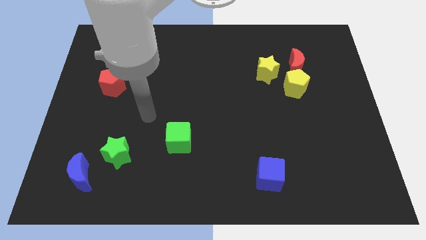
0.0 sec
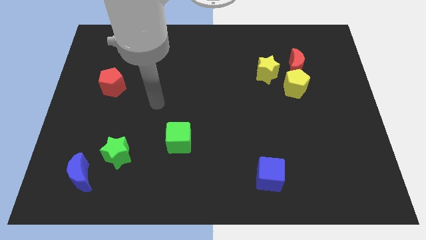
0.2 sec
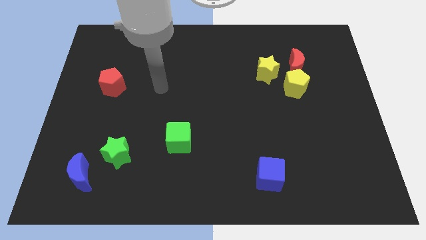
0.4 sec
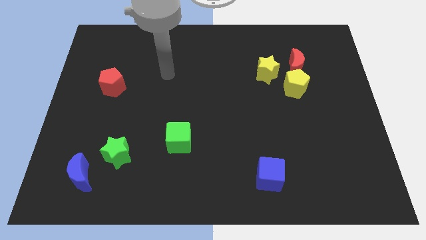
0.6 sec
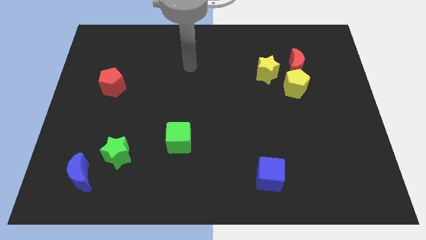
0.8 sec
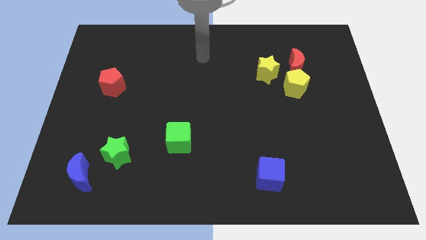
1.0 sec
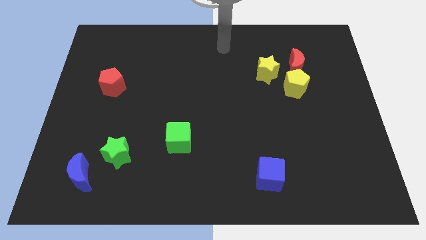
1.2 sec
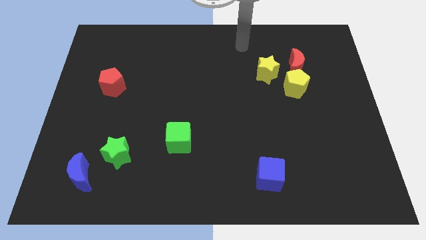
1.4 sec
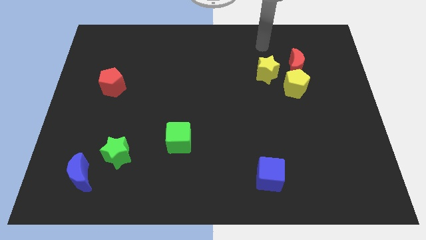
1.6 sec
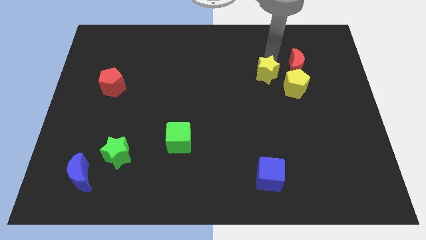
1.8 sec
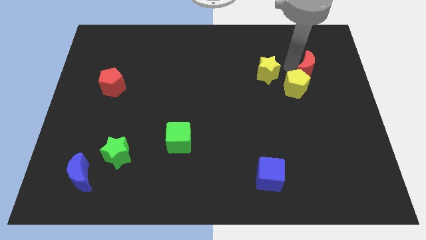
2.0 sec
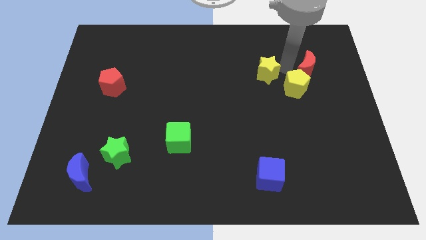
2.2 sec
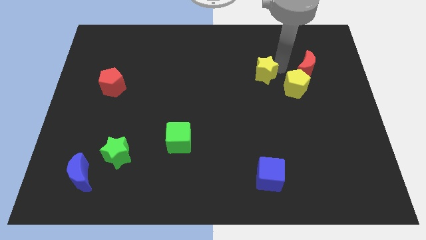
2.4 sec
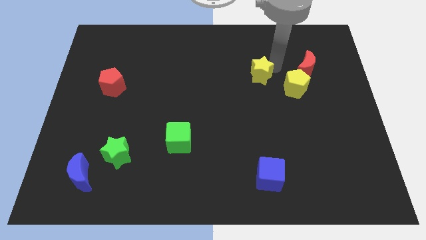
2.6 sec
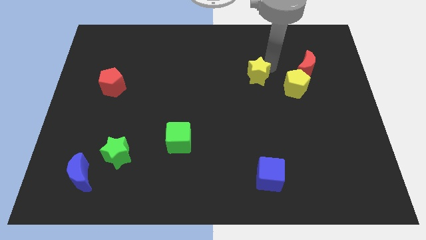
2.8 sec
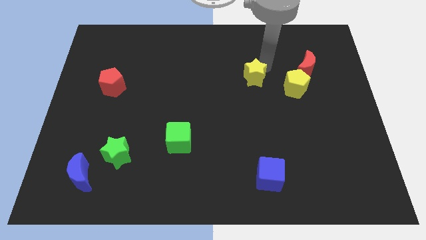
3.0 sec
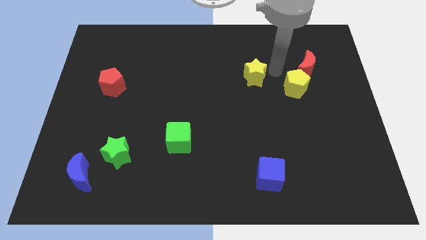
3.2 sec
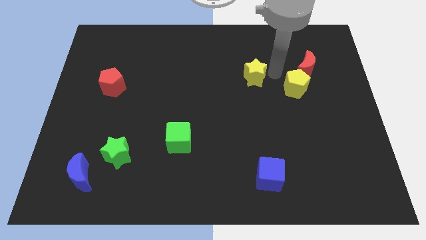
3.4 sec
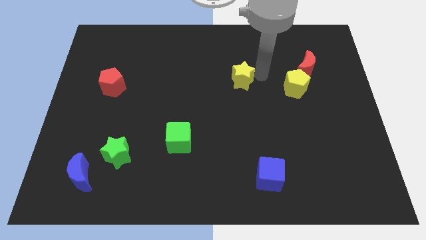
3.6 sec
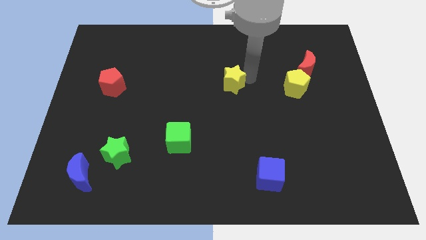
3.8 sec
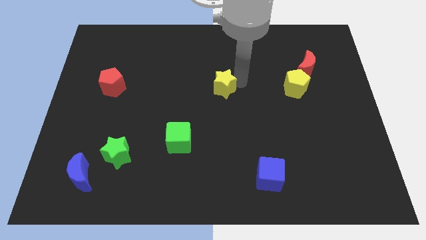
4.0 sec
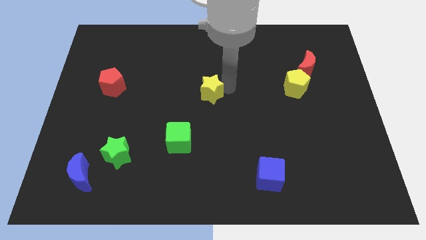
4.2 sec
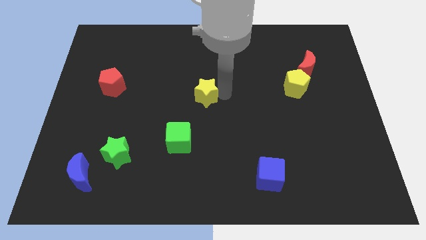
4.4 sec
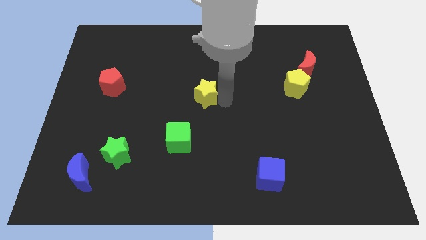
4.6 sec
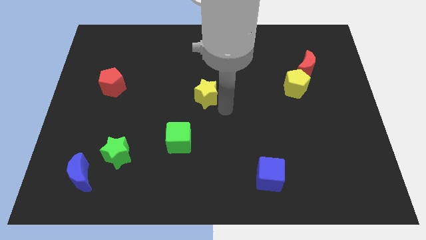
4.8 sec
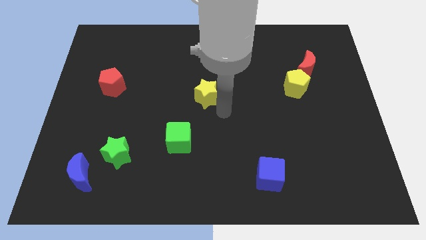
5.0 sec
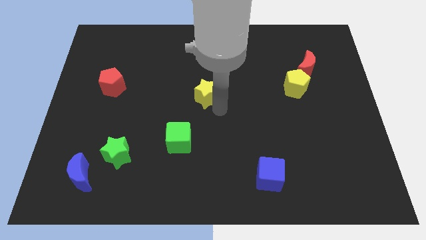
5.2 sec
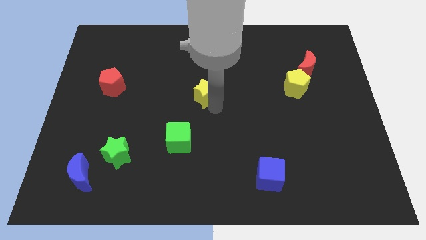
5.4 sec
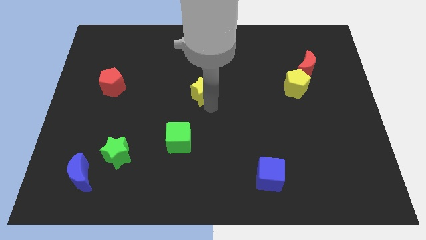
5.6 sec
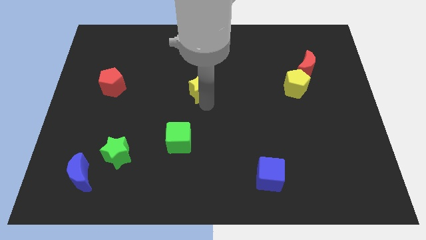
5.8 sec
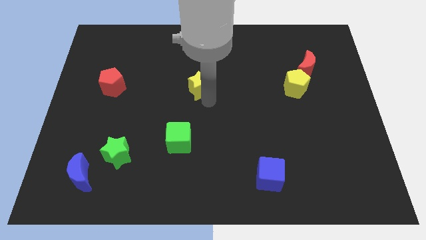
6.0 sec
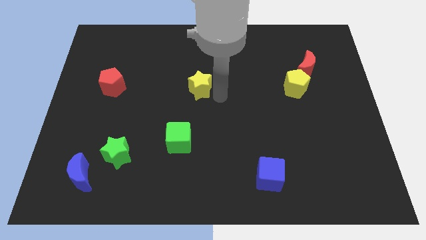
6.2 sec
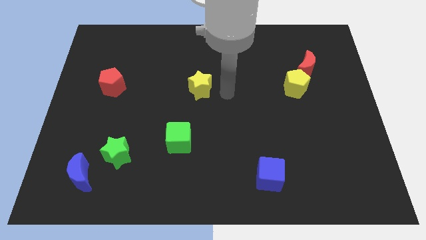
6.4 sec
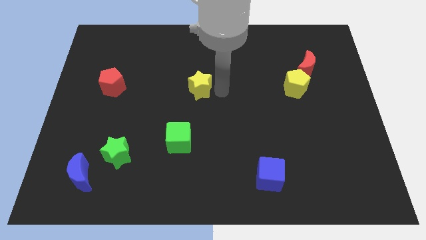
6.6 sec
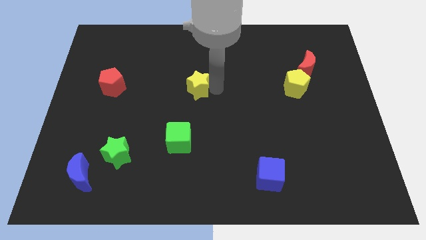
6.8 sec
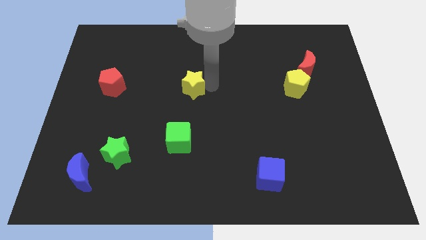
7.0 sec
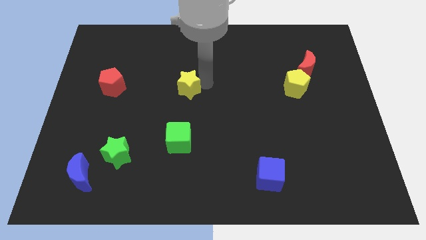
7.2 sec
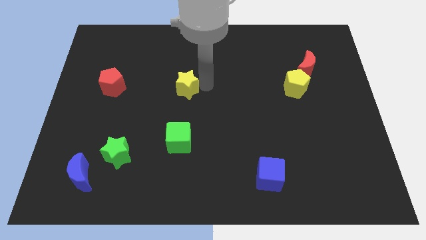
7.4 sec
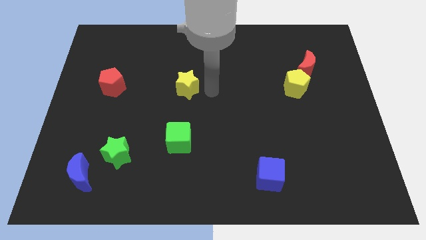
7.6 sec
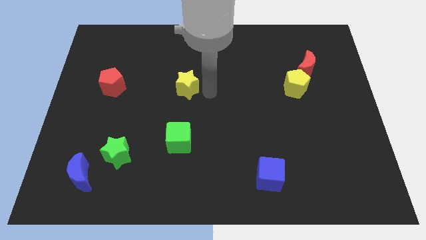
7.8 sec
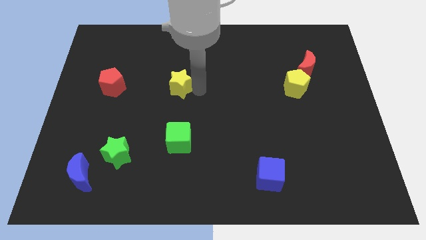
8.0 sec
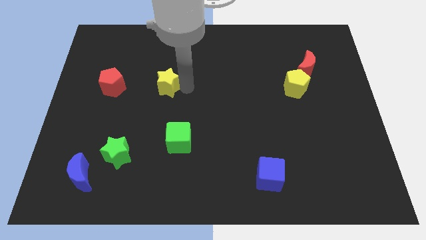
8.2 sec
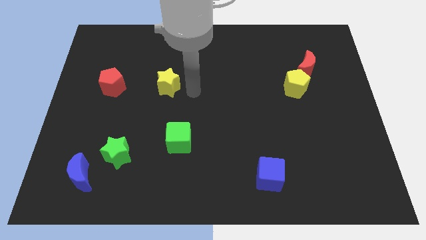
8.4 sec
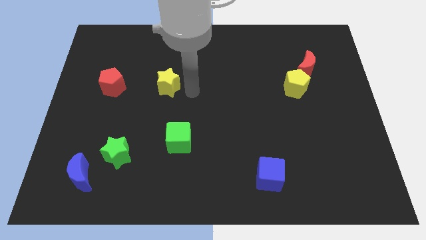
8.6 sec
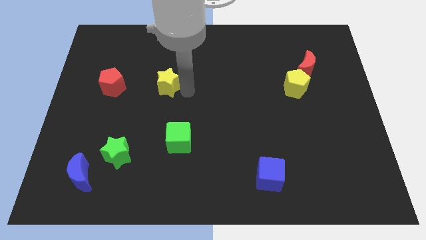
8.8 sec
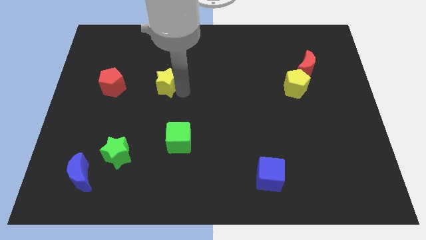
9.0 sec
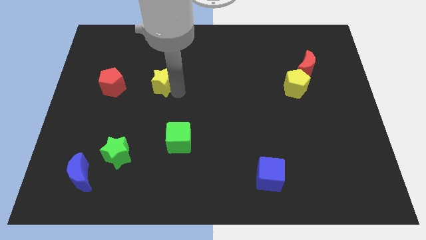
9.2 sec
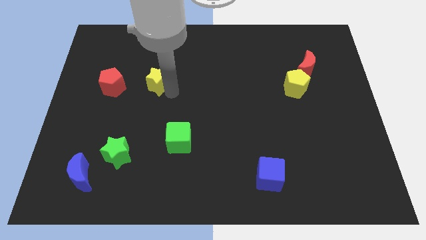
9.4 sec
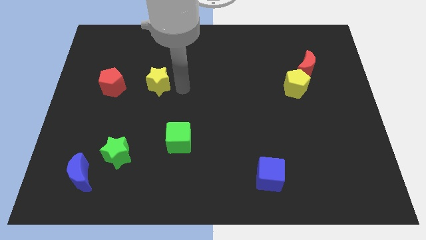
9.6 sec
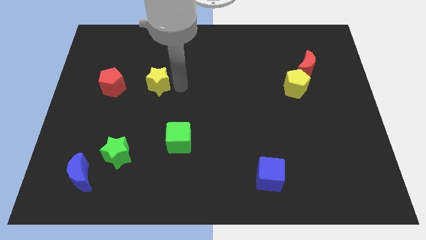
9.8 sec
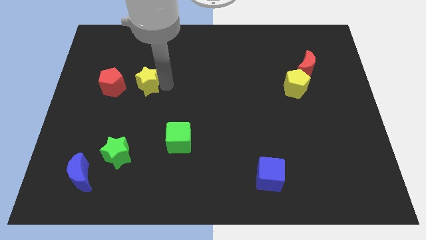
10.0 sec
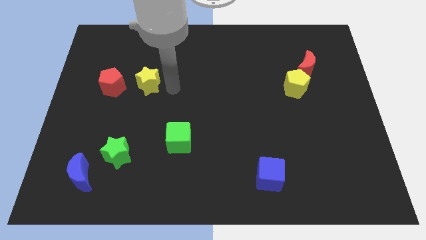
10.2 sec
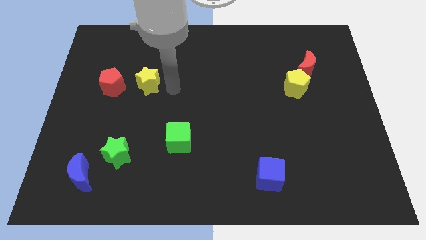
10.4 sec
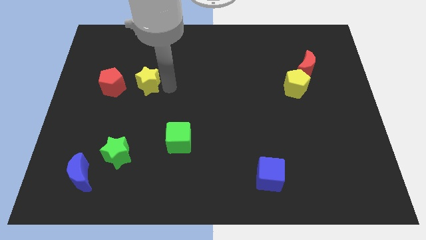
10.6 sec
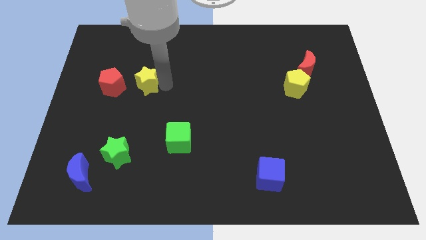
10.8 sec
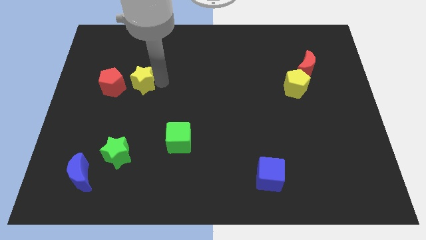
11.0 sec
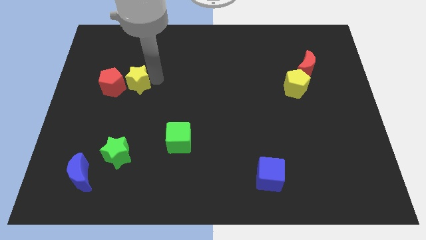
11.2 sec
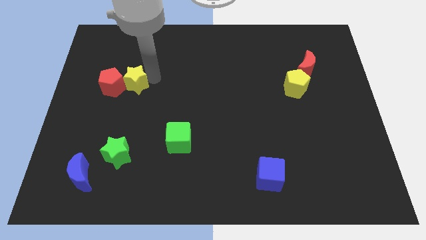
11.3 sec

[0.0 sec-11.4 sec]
push the yellow star close to the red pentagon

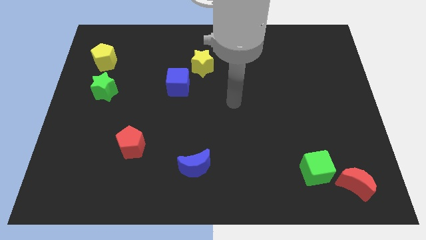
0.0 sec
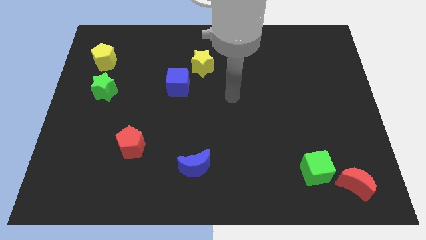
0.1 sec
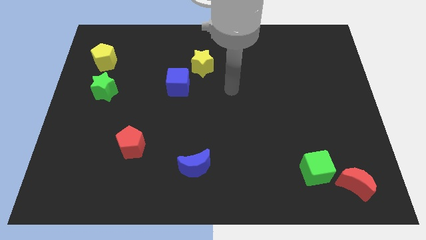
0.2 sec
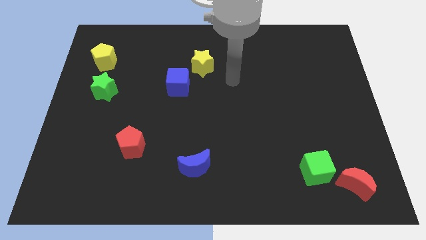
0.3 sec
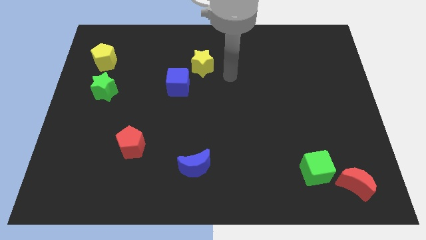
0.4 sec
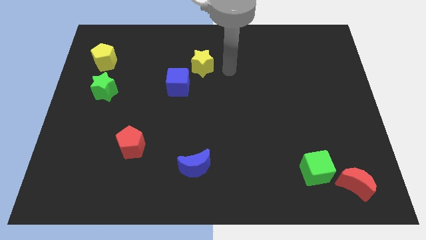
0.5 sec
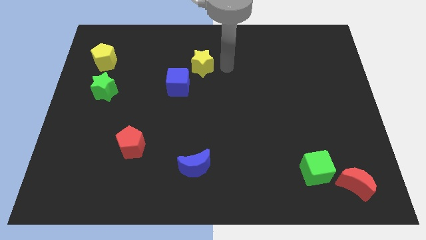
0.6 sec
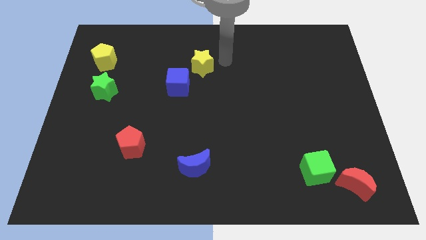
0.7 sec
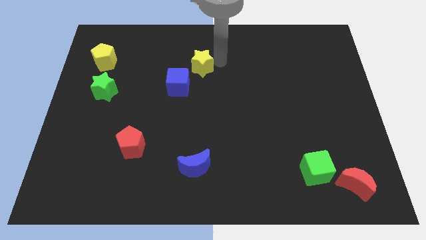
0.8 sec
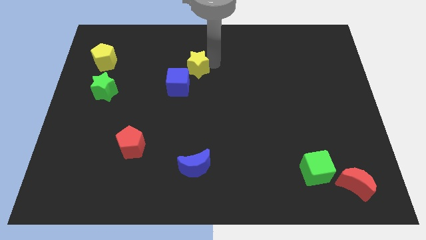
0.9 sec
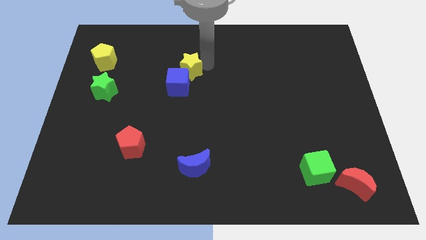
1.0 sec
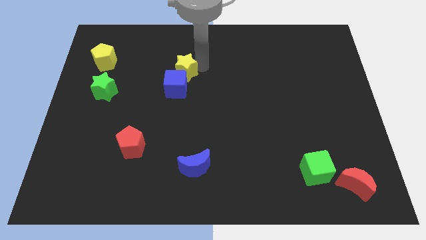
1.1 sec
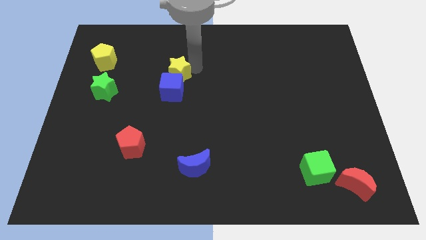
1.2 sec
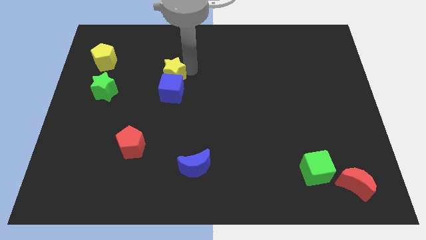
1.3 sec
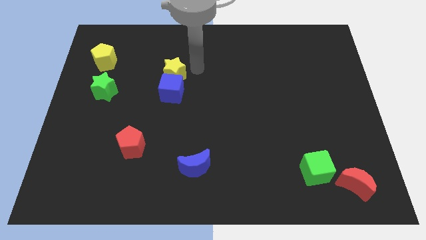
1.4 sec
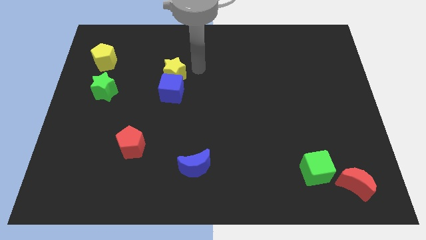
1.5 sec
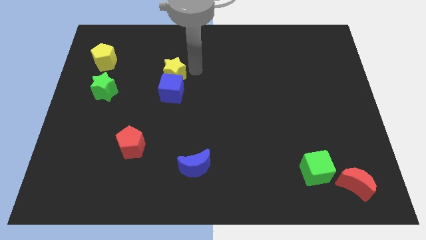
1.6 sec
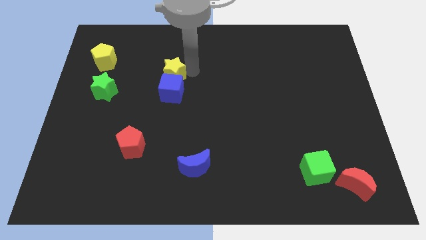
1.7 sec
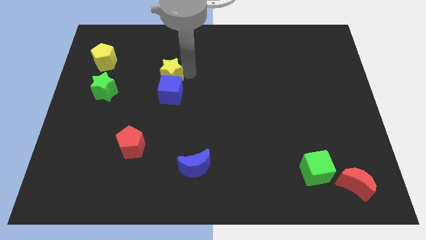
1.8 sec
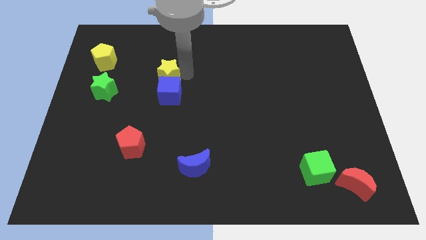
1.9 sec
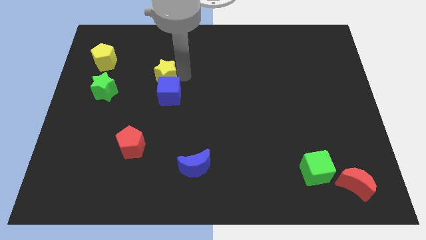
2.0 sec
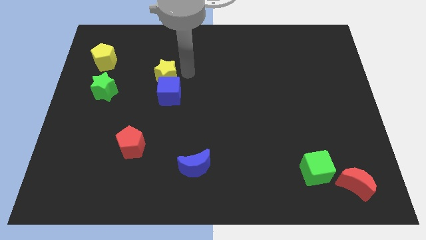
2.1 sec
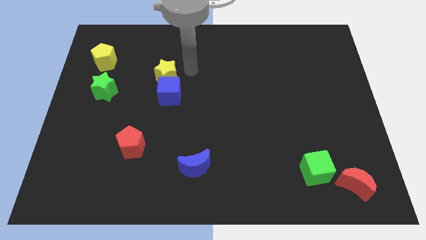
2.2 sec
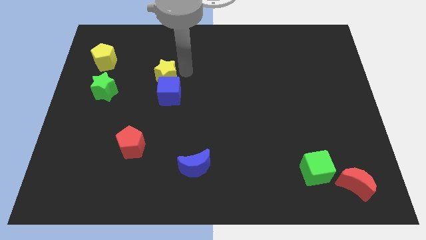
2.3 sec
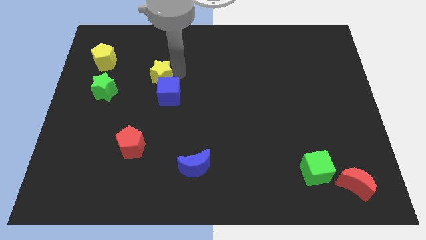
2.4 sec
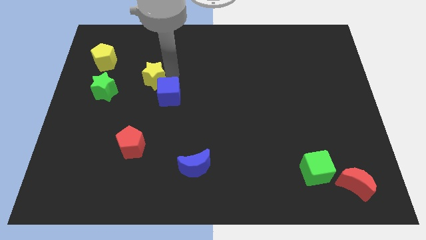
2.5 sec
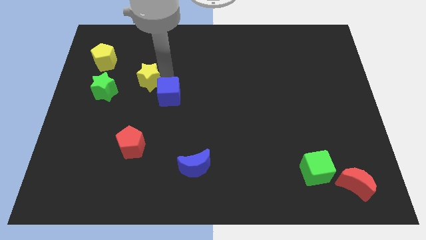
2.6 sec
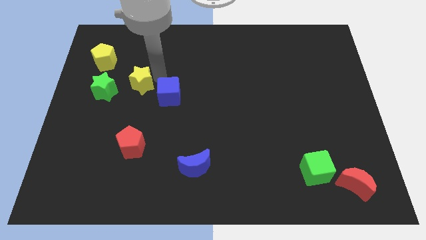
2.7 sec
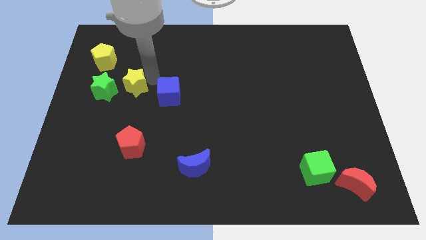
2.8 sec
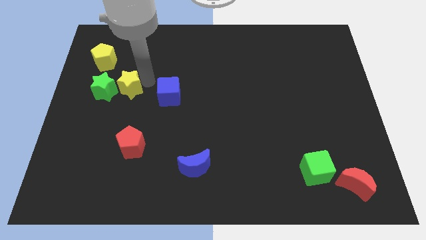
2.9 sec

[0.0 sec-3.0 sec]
slide the yellow star towards the green star
